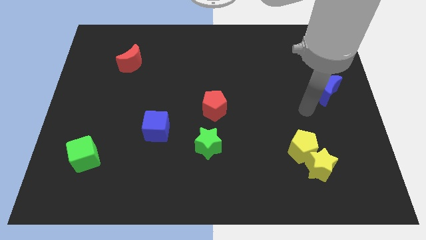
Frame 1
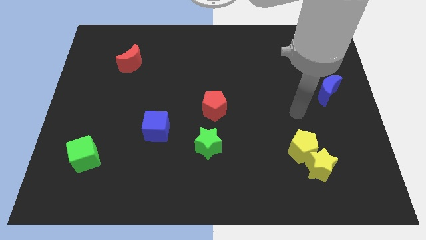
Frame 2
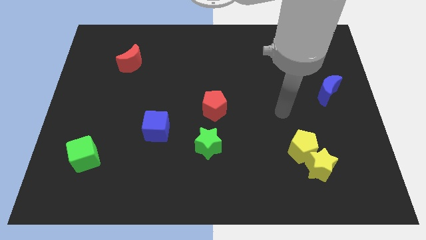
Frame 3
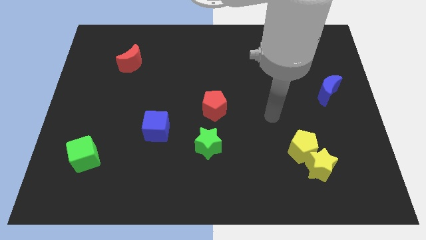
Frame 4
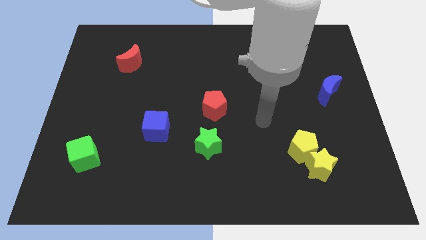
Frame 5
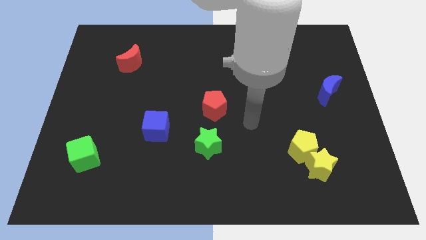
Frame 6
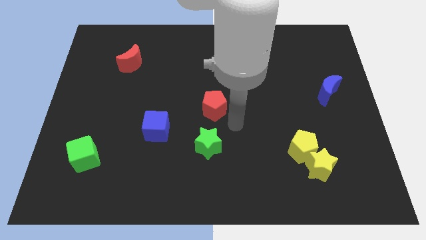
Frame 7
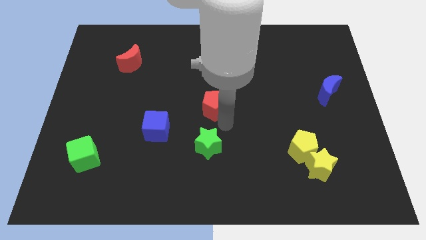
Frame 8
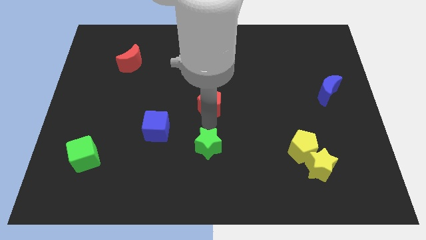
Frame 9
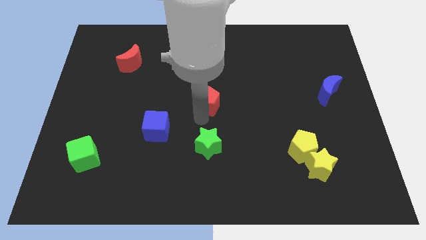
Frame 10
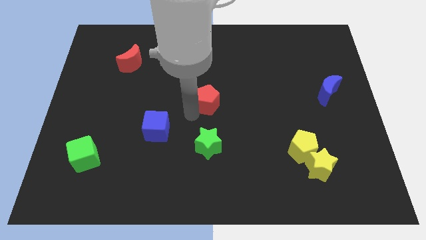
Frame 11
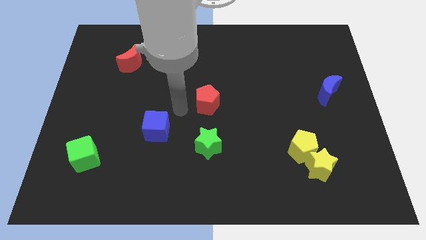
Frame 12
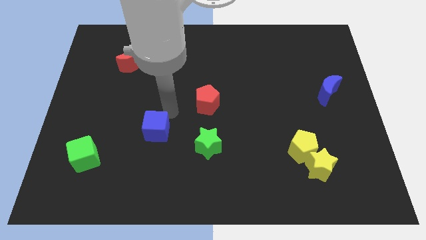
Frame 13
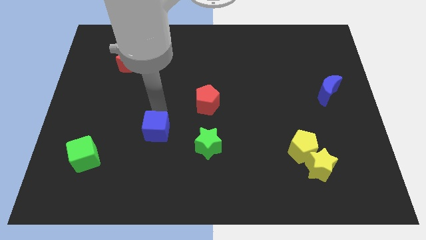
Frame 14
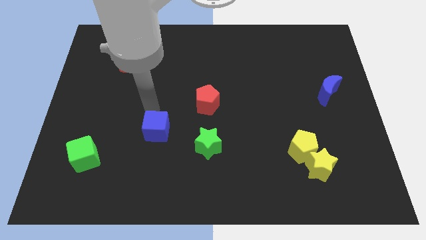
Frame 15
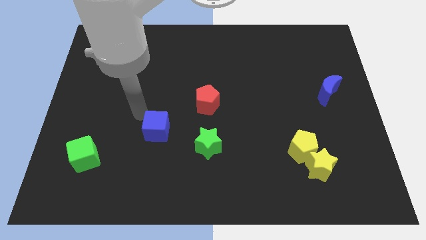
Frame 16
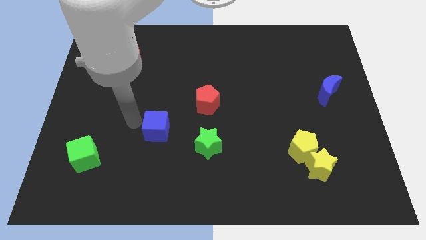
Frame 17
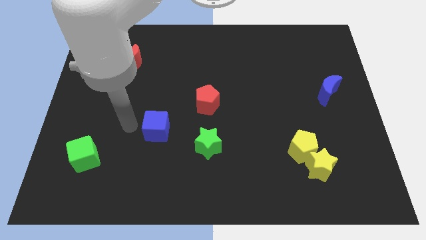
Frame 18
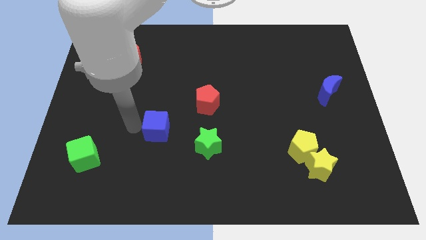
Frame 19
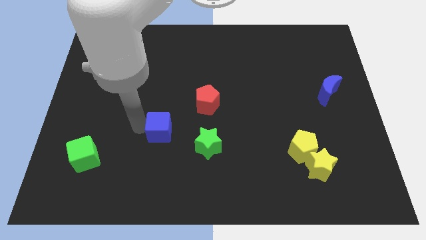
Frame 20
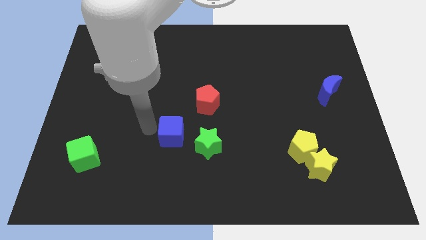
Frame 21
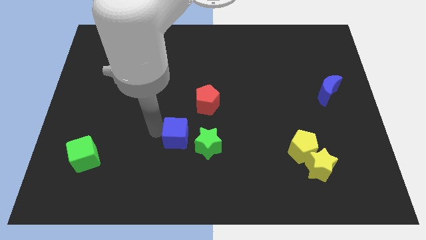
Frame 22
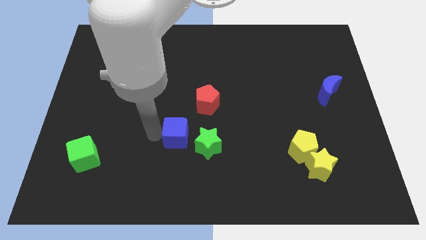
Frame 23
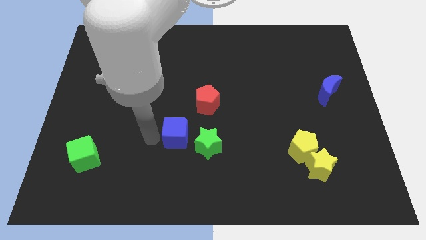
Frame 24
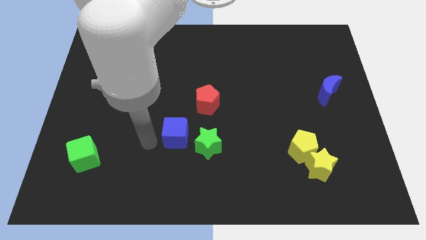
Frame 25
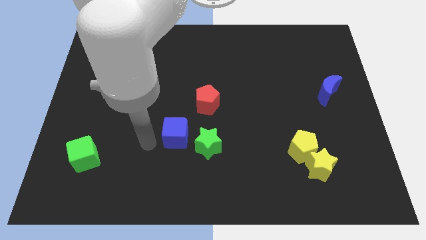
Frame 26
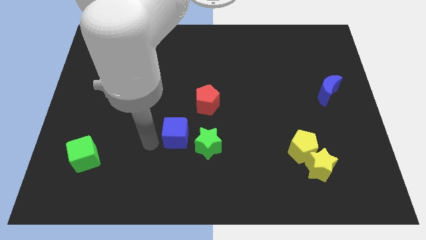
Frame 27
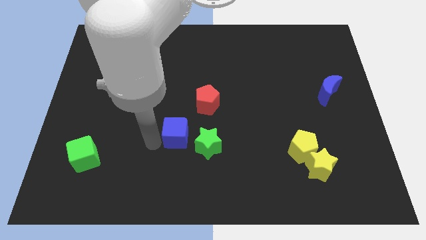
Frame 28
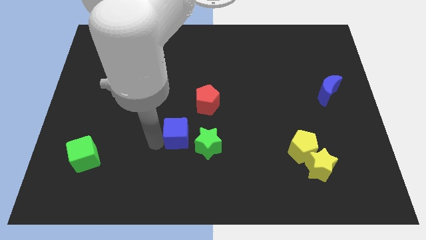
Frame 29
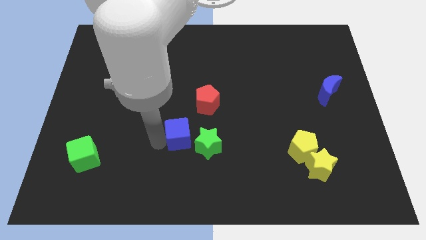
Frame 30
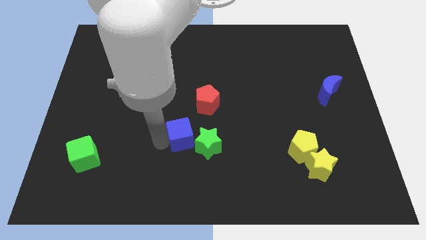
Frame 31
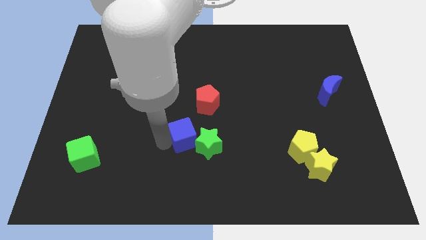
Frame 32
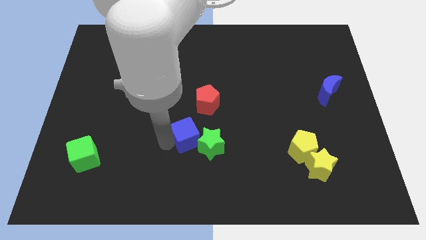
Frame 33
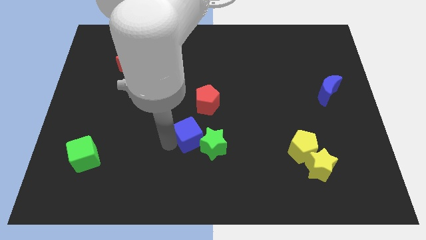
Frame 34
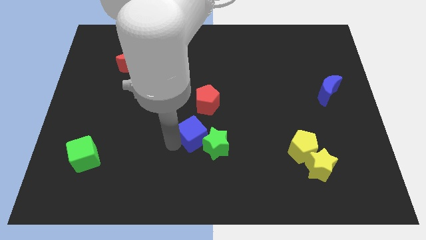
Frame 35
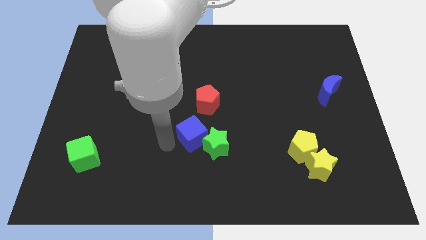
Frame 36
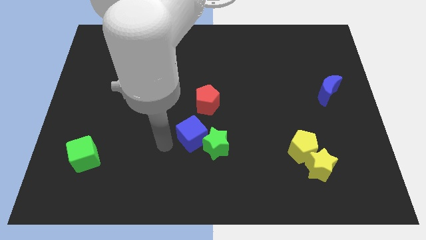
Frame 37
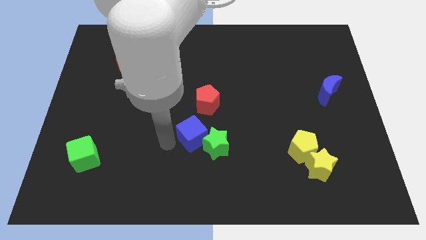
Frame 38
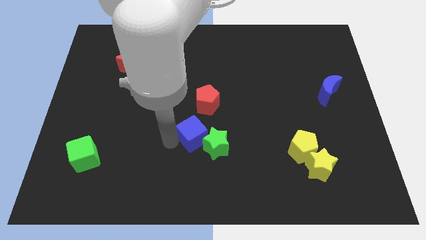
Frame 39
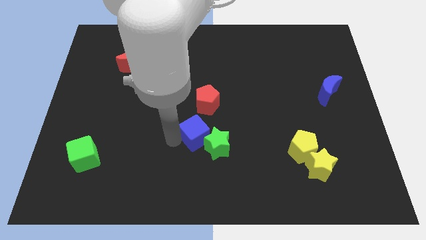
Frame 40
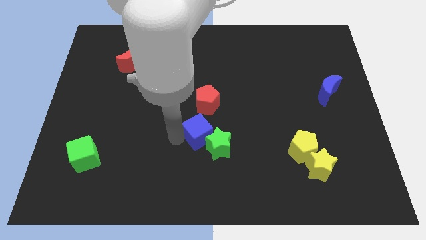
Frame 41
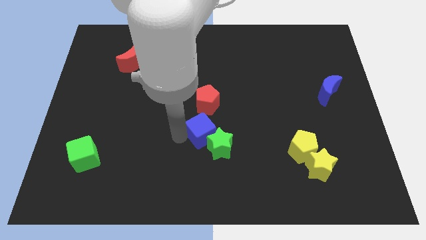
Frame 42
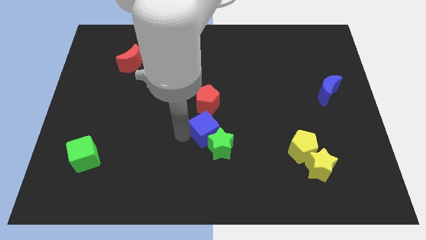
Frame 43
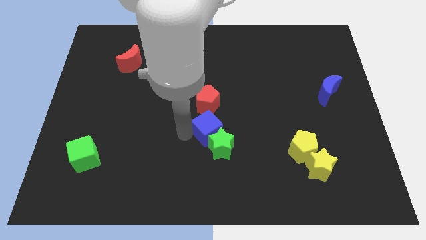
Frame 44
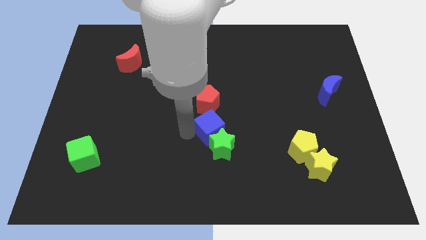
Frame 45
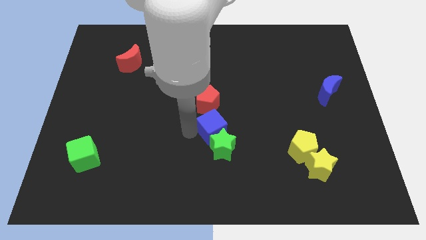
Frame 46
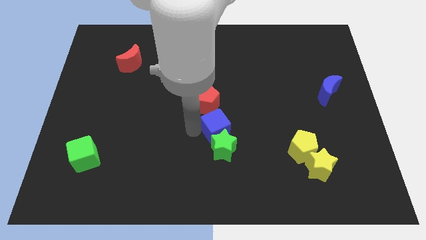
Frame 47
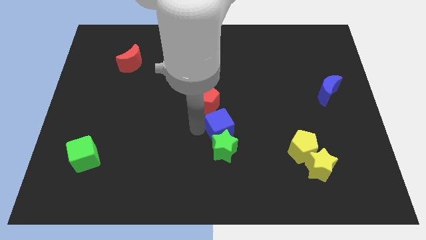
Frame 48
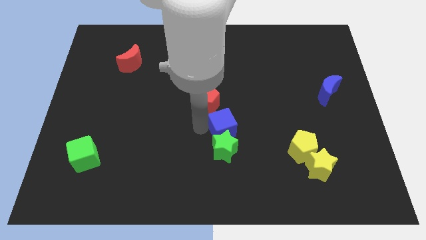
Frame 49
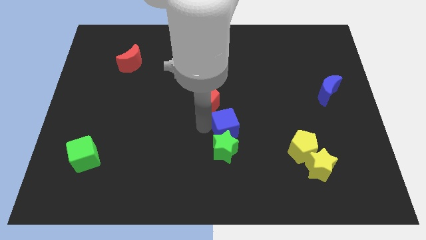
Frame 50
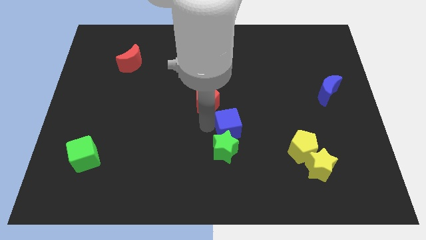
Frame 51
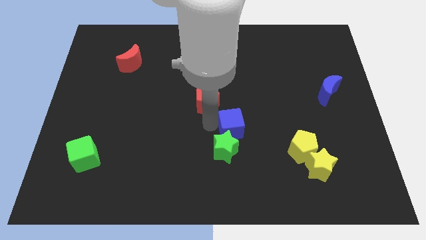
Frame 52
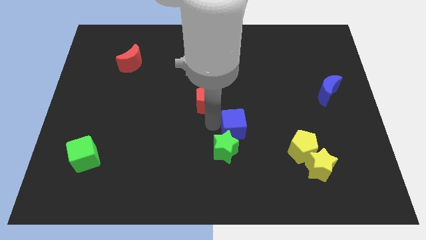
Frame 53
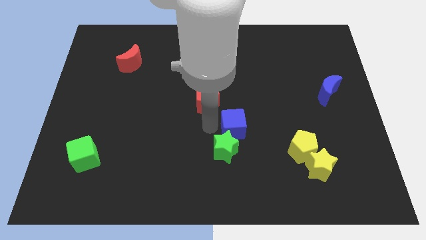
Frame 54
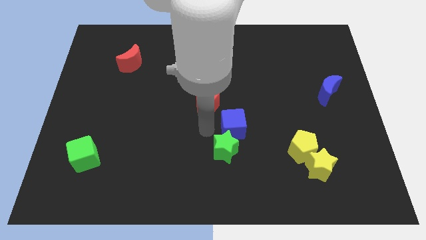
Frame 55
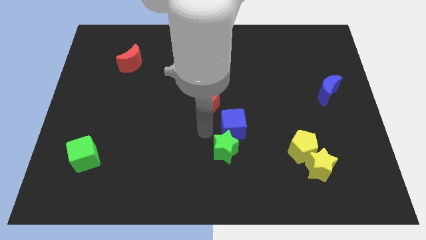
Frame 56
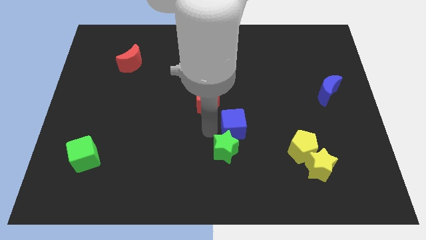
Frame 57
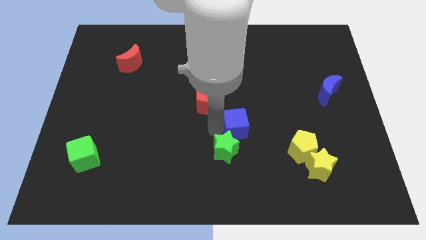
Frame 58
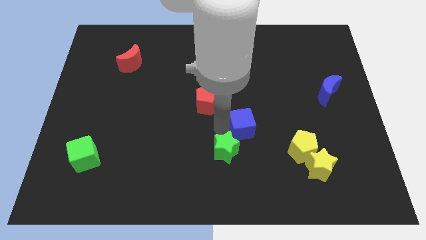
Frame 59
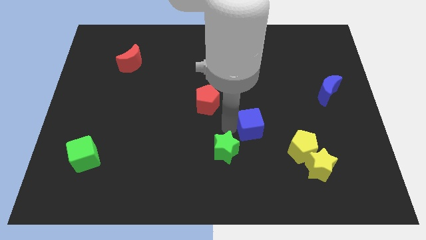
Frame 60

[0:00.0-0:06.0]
slide the blue cube right

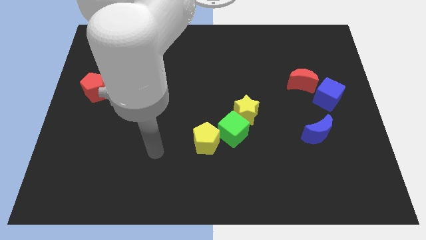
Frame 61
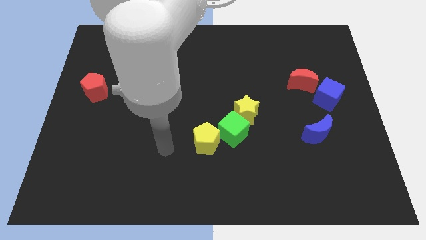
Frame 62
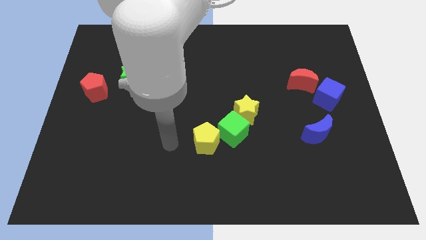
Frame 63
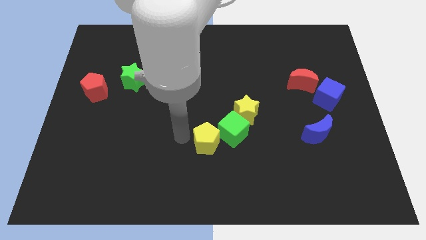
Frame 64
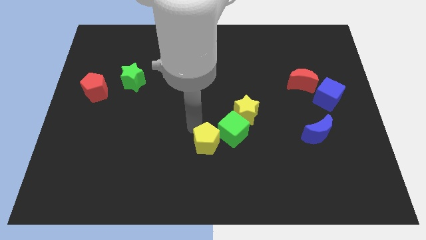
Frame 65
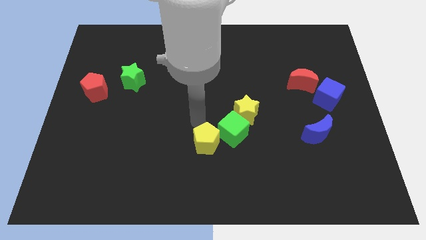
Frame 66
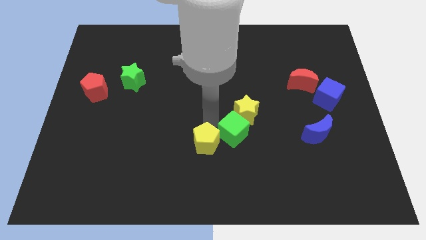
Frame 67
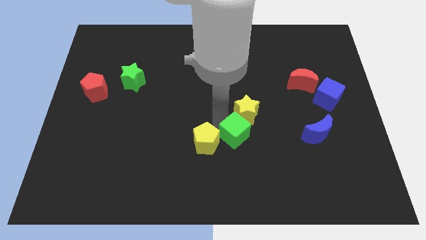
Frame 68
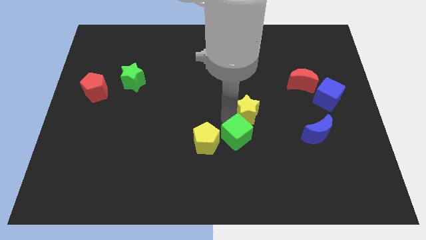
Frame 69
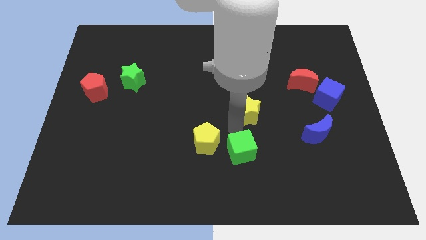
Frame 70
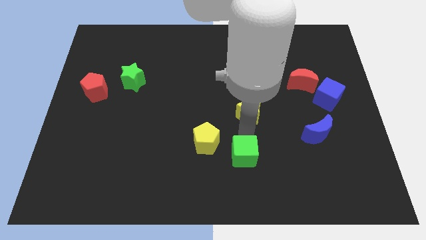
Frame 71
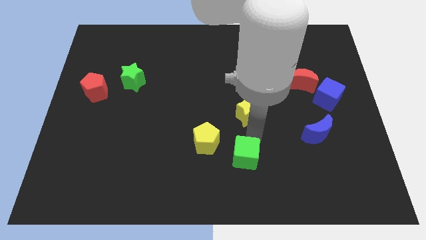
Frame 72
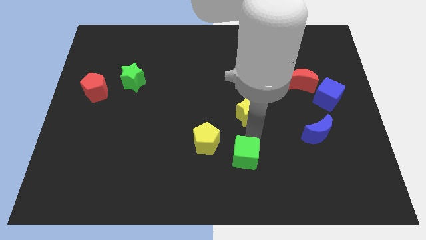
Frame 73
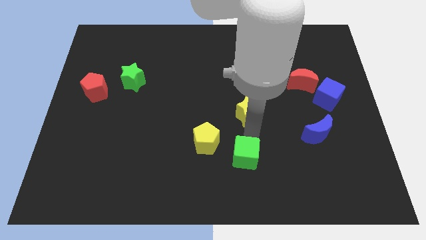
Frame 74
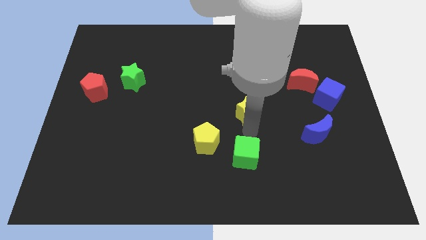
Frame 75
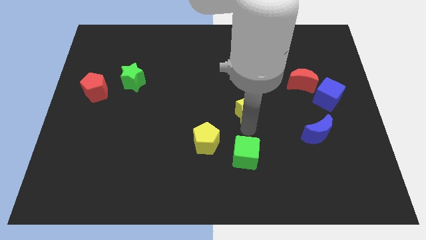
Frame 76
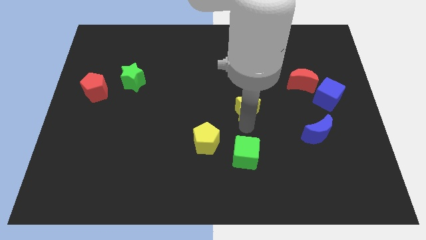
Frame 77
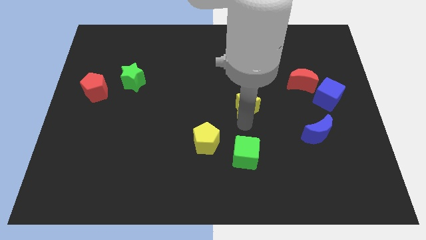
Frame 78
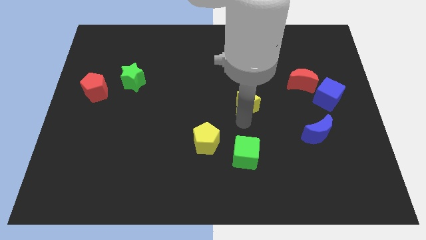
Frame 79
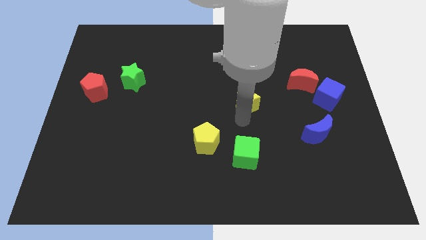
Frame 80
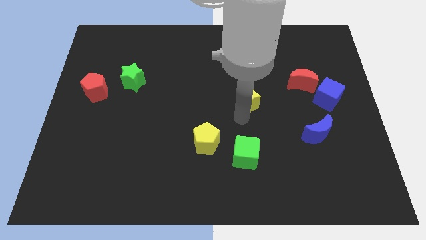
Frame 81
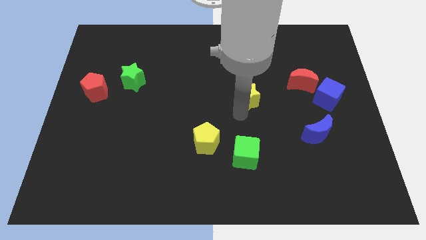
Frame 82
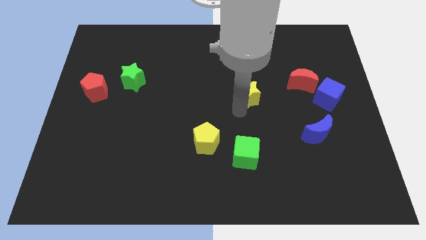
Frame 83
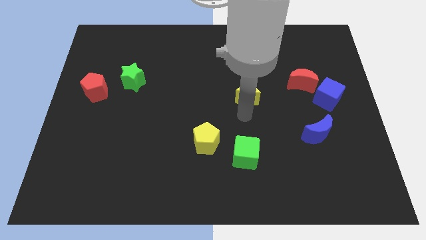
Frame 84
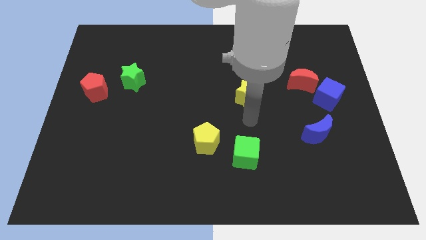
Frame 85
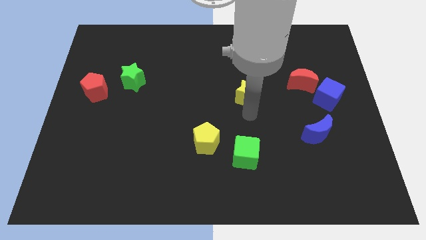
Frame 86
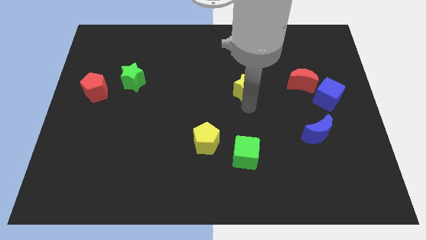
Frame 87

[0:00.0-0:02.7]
slightly move the yellow star up
